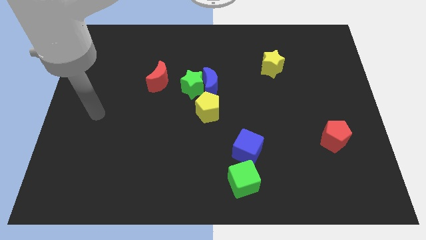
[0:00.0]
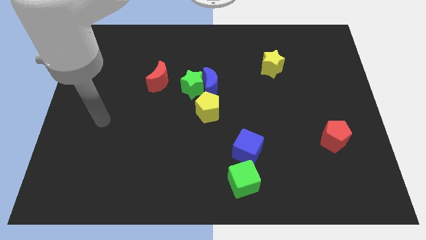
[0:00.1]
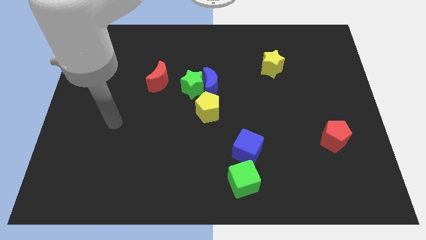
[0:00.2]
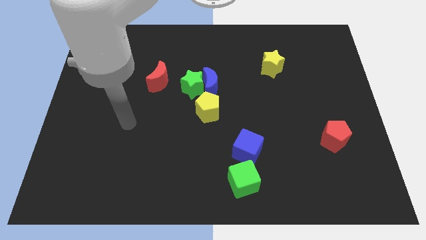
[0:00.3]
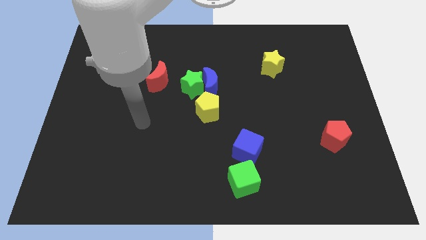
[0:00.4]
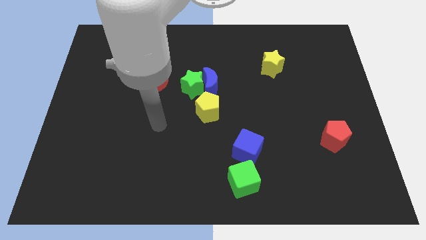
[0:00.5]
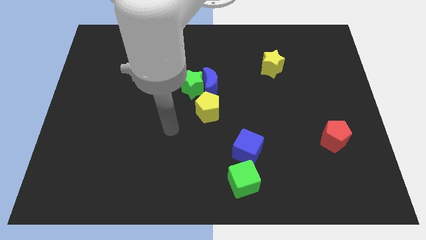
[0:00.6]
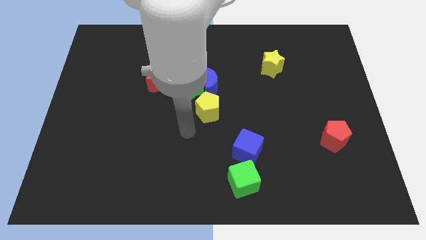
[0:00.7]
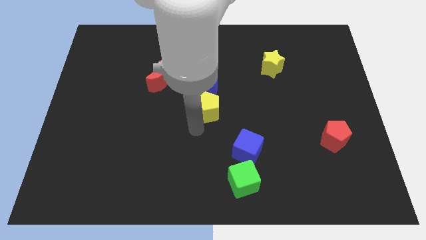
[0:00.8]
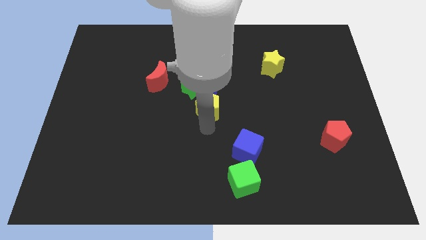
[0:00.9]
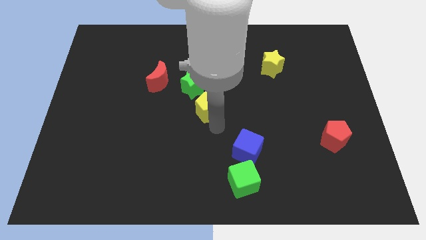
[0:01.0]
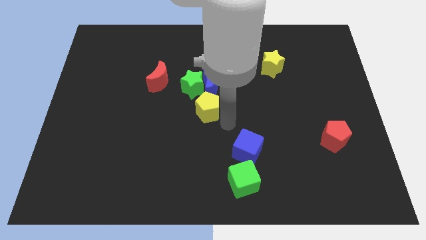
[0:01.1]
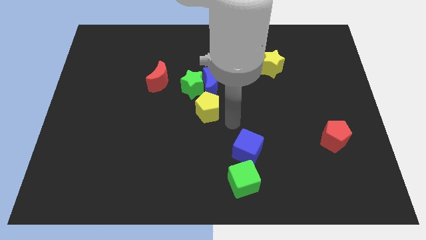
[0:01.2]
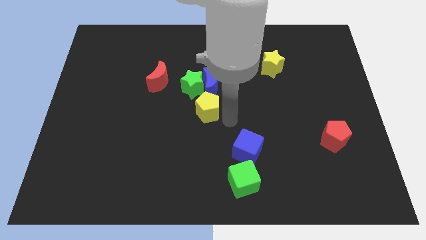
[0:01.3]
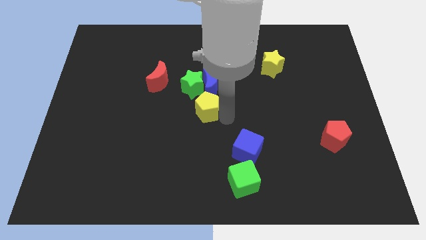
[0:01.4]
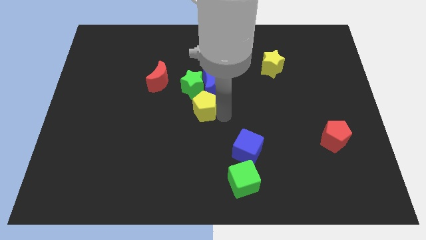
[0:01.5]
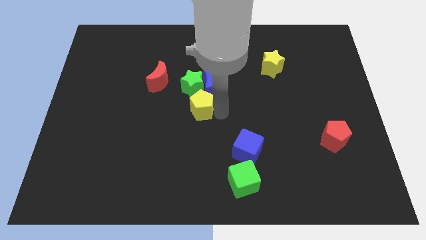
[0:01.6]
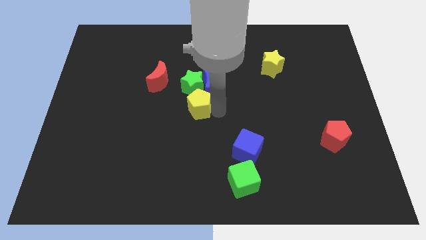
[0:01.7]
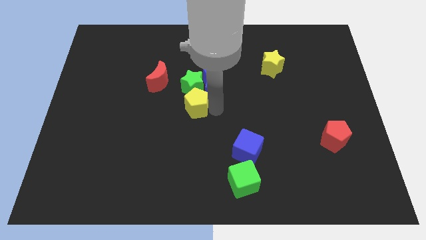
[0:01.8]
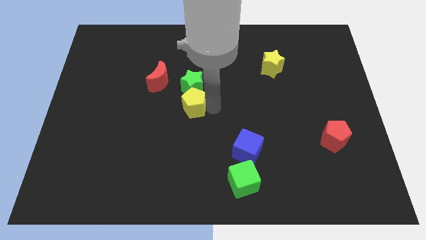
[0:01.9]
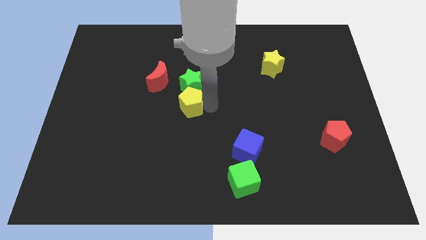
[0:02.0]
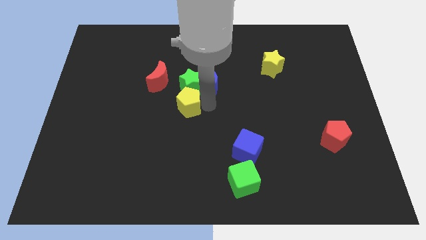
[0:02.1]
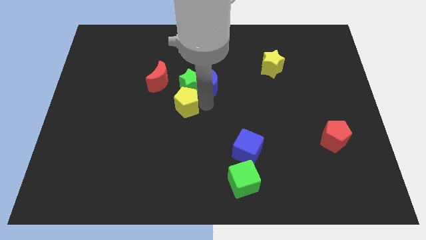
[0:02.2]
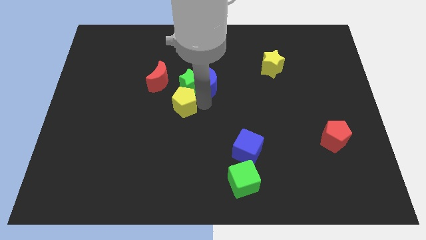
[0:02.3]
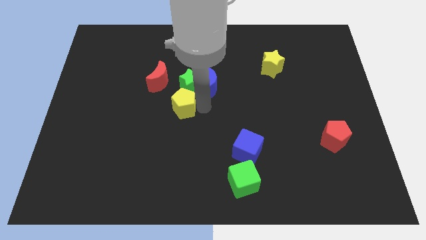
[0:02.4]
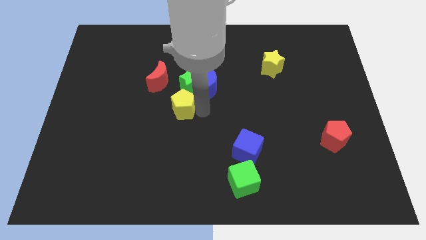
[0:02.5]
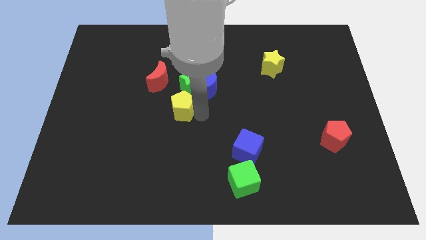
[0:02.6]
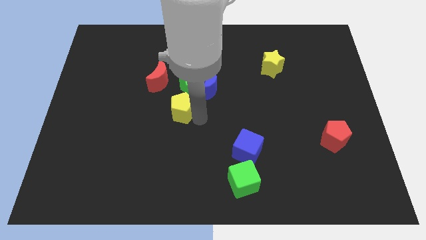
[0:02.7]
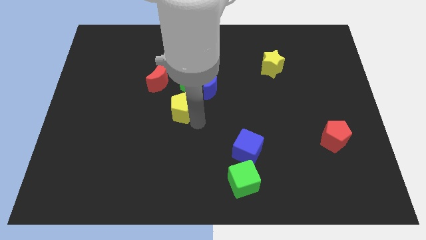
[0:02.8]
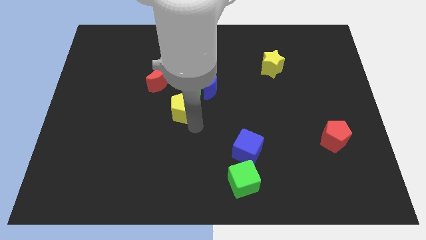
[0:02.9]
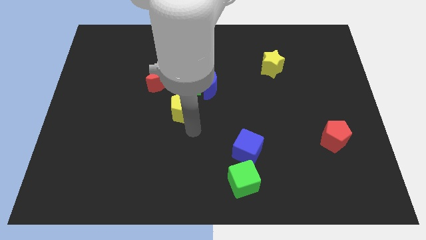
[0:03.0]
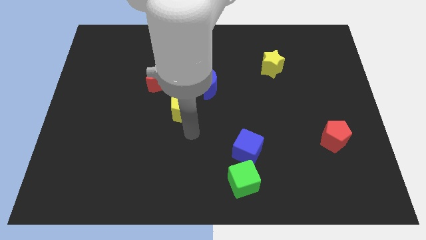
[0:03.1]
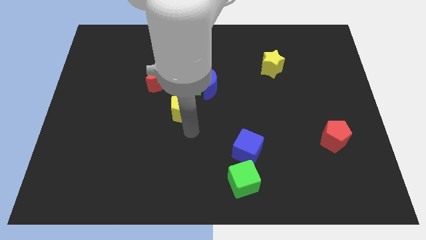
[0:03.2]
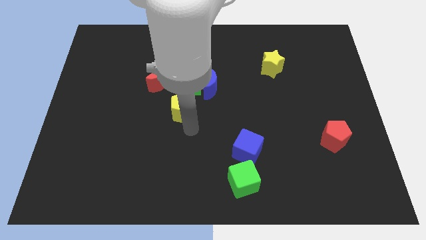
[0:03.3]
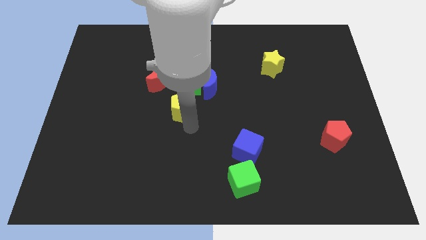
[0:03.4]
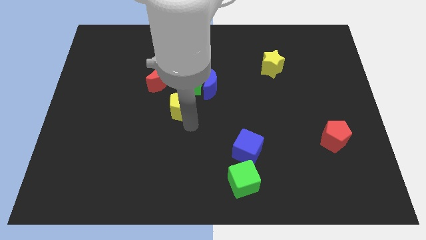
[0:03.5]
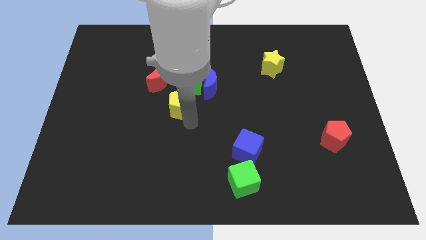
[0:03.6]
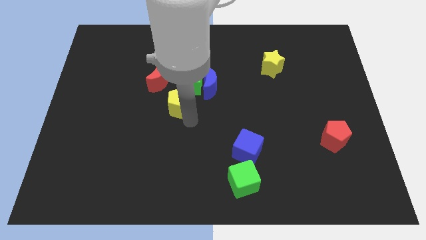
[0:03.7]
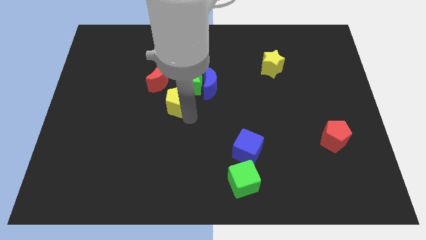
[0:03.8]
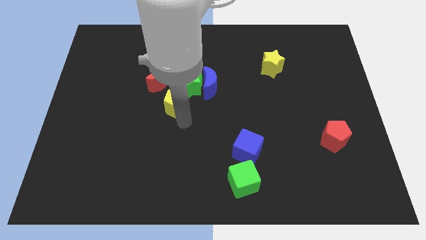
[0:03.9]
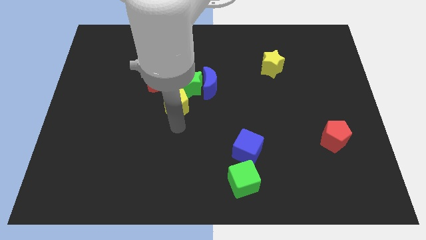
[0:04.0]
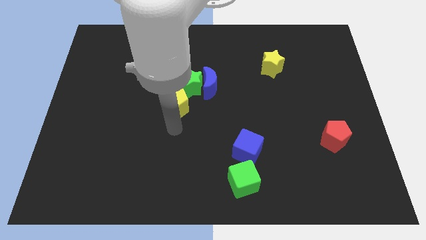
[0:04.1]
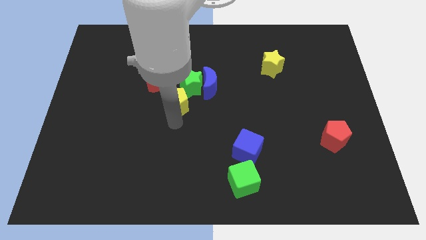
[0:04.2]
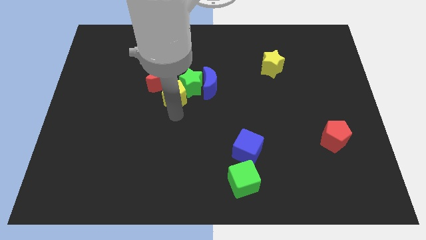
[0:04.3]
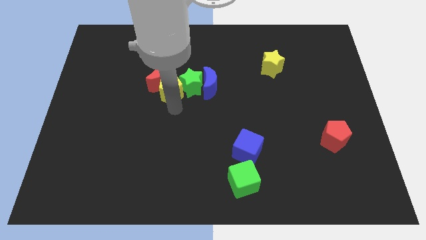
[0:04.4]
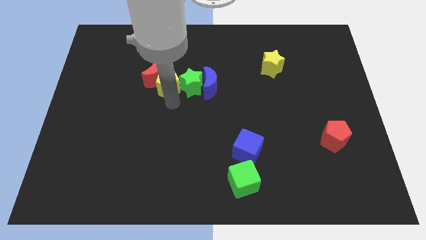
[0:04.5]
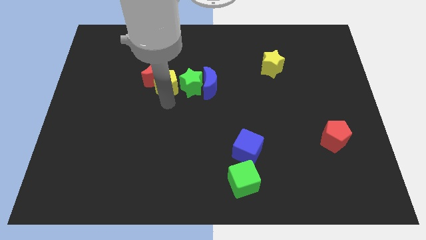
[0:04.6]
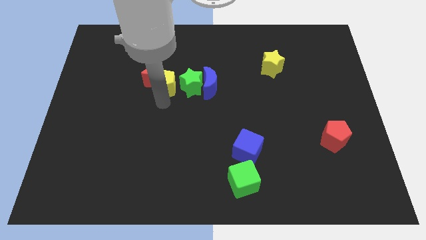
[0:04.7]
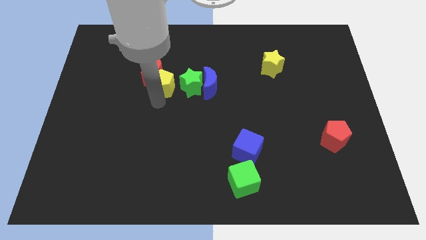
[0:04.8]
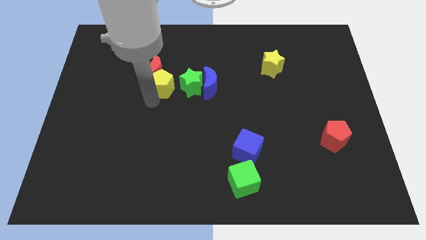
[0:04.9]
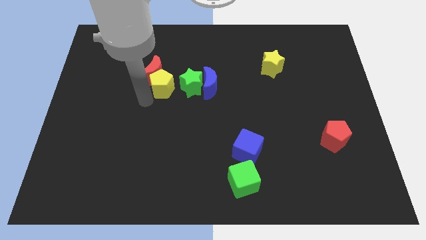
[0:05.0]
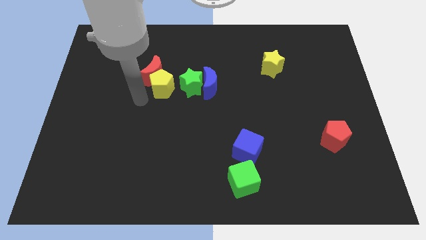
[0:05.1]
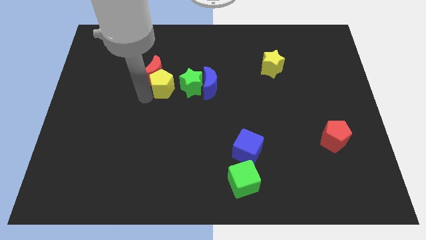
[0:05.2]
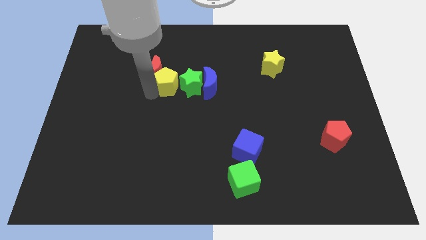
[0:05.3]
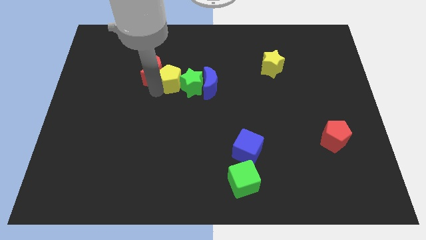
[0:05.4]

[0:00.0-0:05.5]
move the yellow pentagon diagonally up and to the right of the red moon

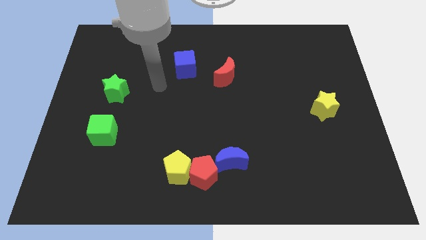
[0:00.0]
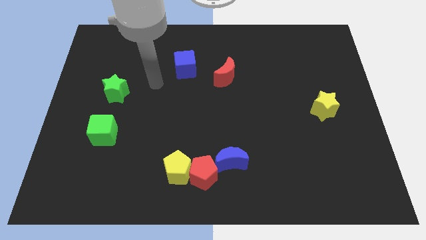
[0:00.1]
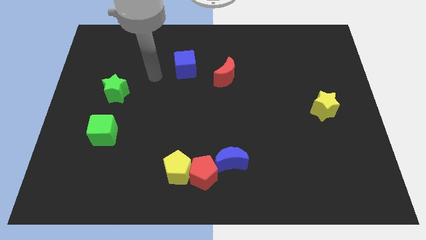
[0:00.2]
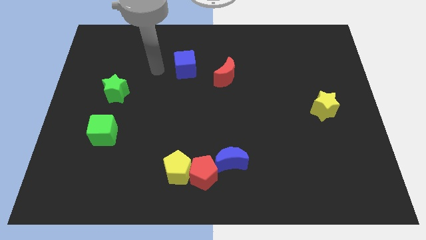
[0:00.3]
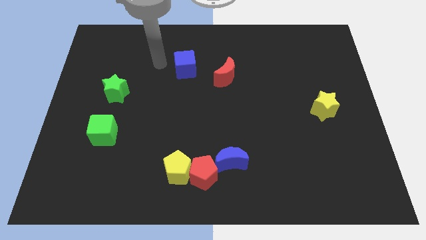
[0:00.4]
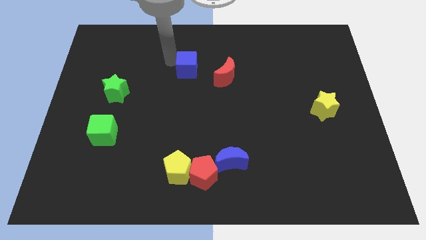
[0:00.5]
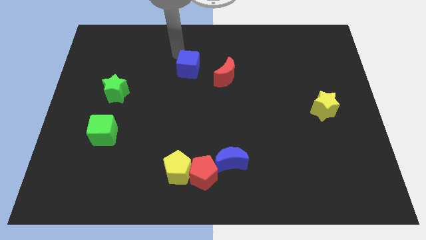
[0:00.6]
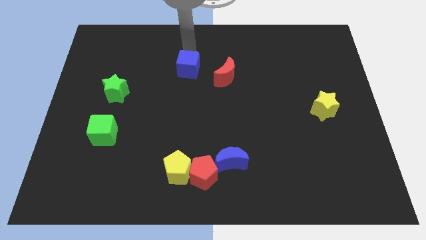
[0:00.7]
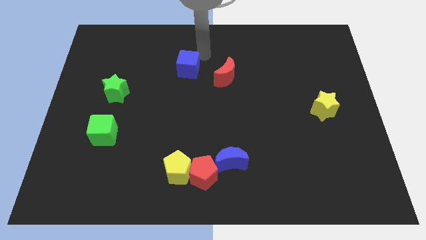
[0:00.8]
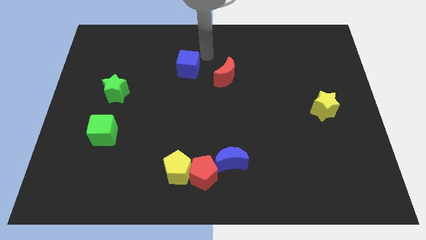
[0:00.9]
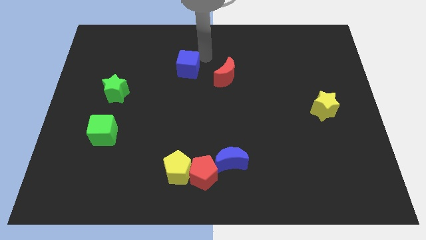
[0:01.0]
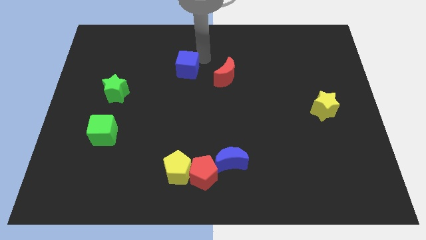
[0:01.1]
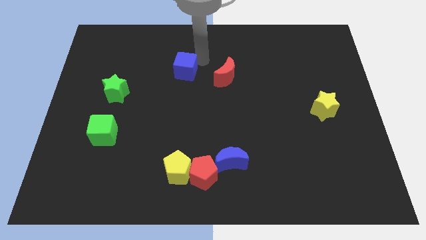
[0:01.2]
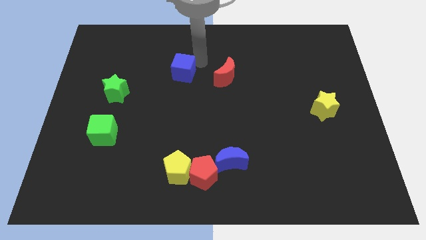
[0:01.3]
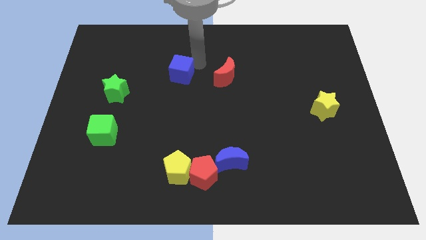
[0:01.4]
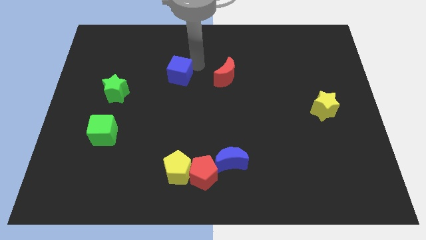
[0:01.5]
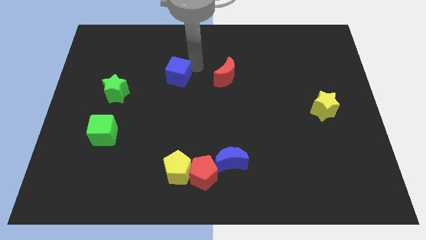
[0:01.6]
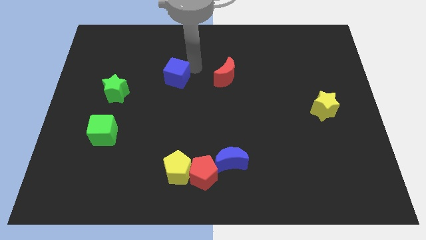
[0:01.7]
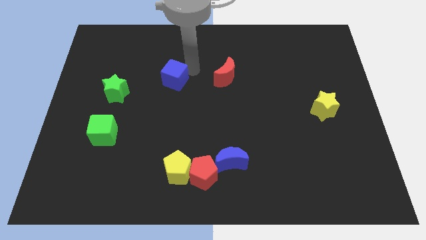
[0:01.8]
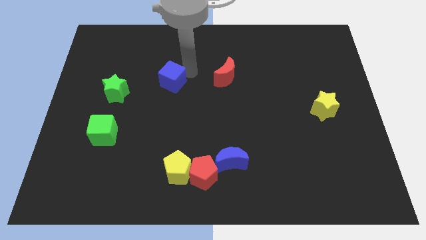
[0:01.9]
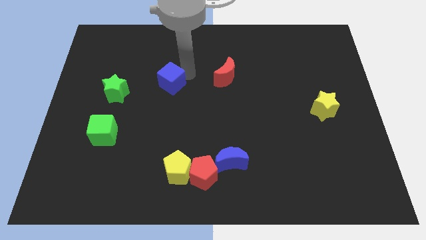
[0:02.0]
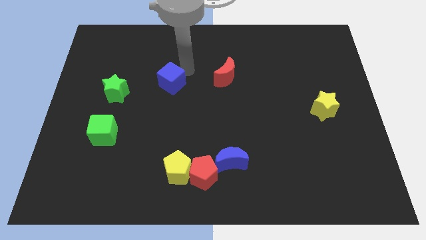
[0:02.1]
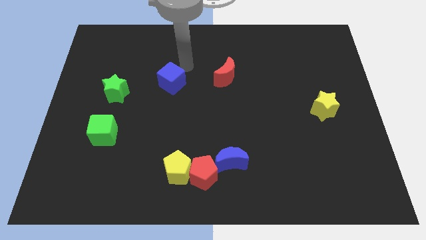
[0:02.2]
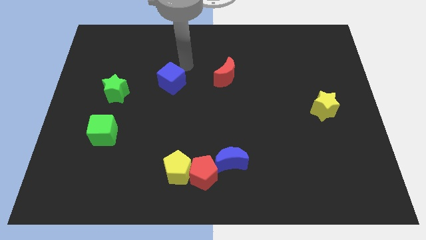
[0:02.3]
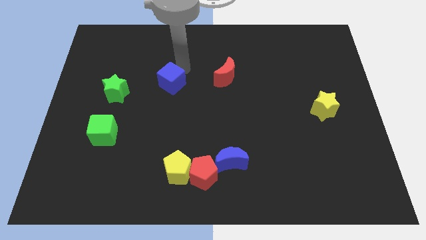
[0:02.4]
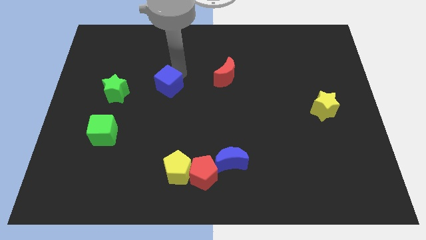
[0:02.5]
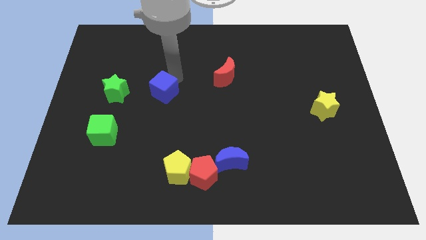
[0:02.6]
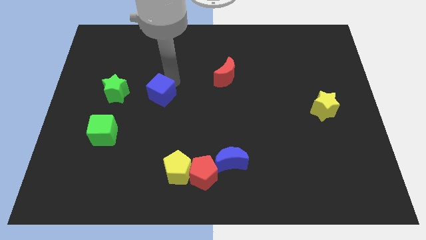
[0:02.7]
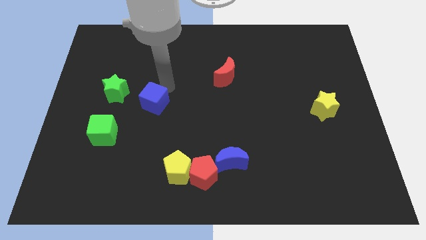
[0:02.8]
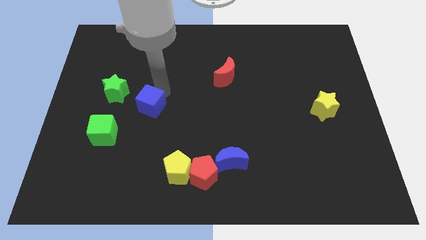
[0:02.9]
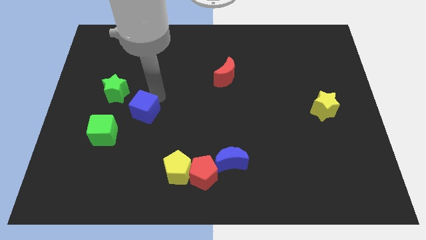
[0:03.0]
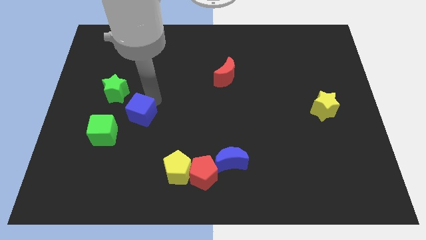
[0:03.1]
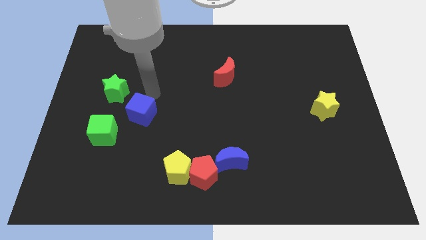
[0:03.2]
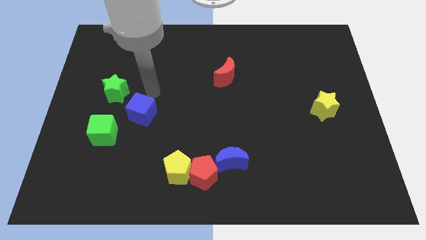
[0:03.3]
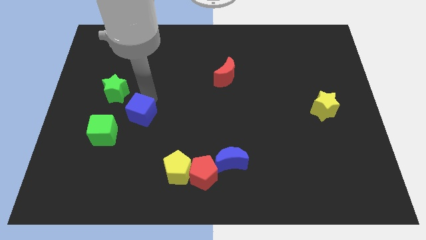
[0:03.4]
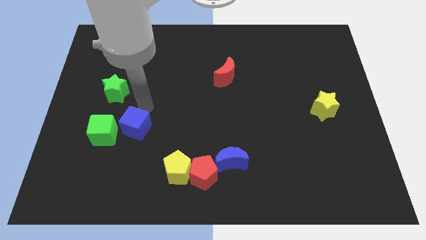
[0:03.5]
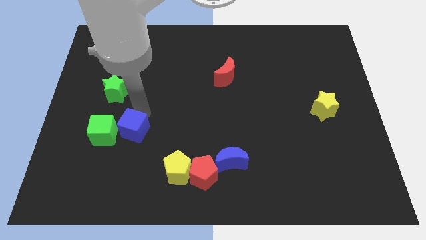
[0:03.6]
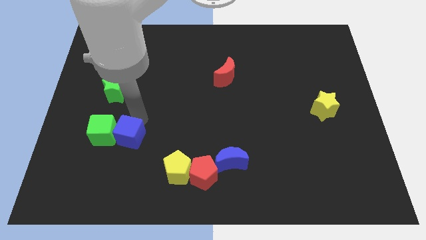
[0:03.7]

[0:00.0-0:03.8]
put the blue cube to the bottom right side of the green cube
